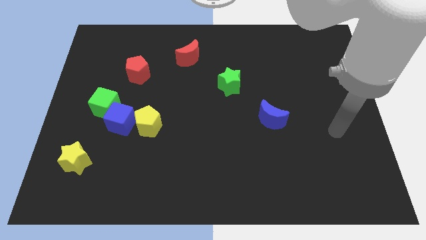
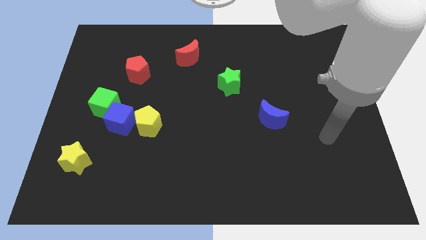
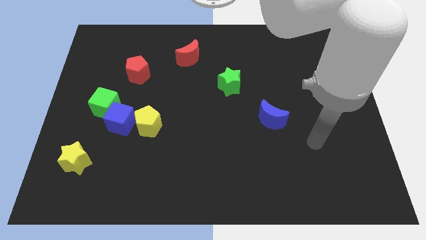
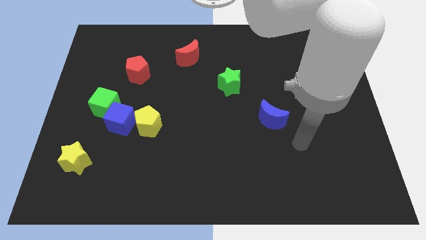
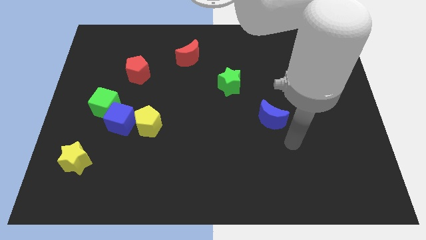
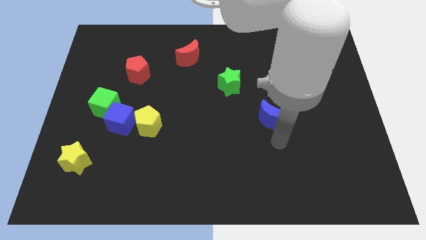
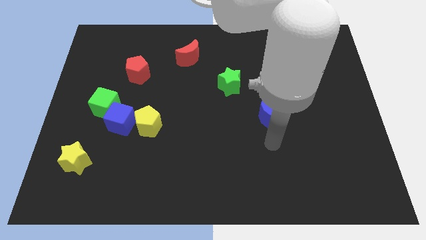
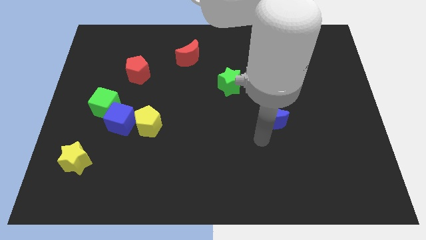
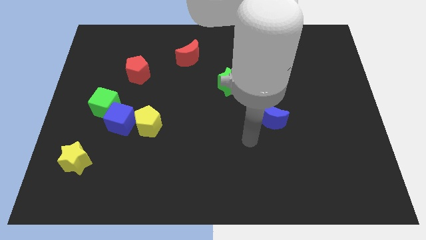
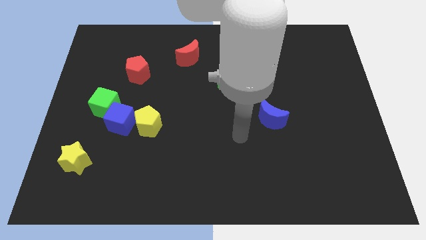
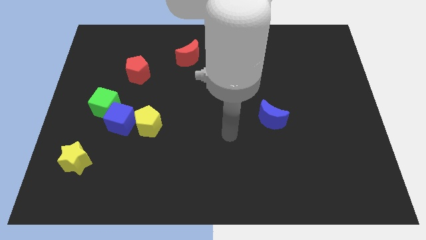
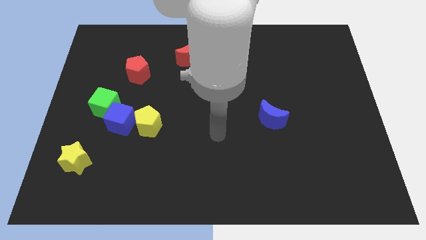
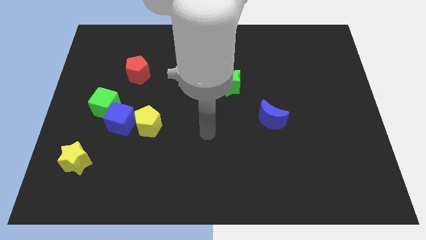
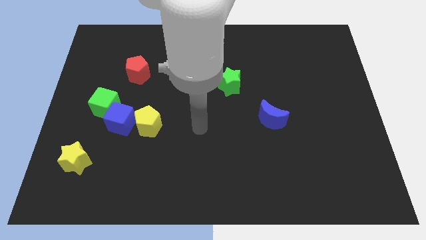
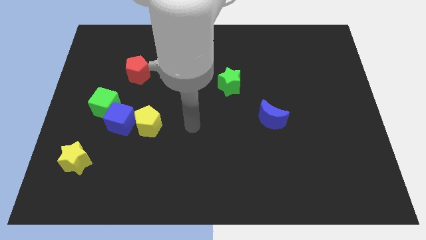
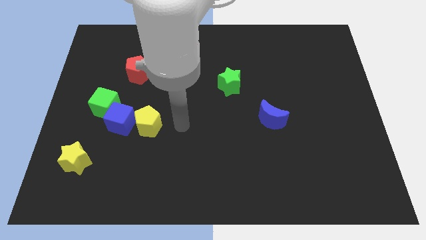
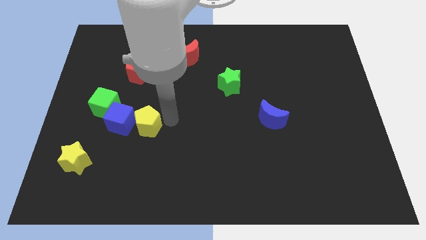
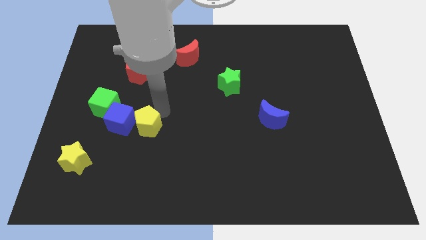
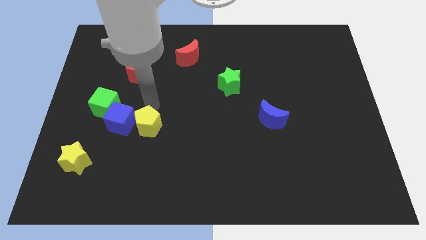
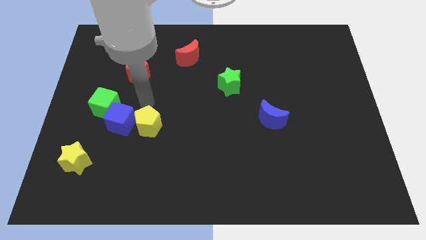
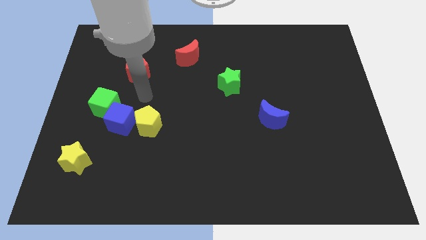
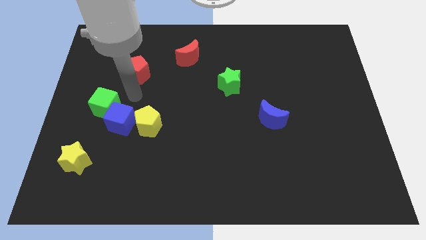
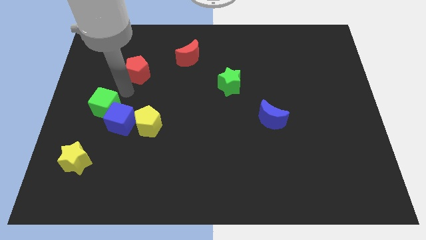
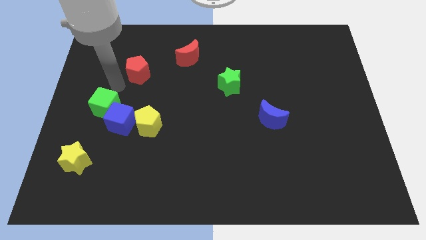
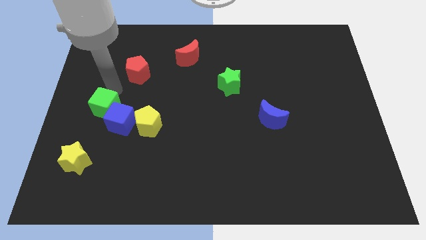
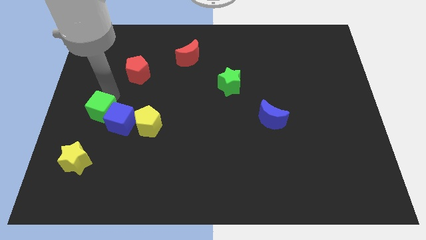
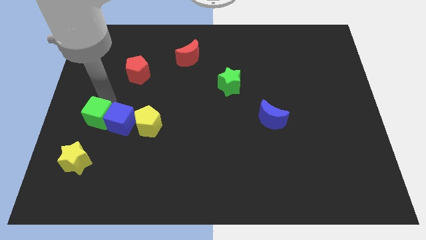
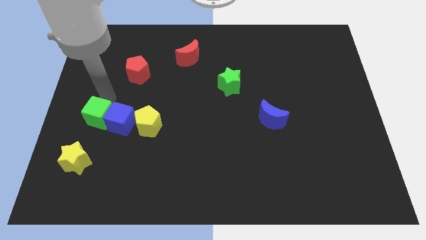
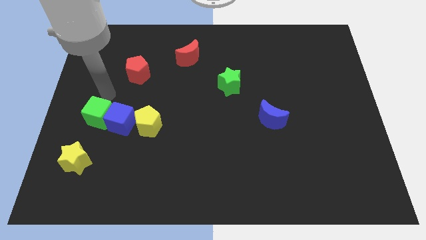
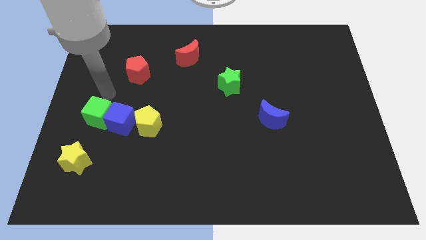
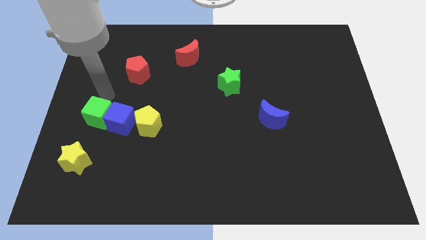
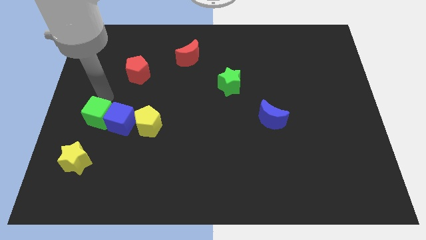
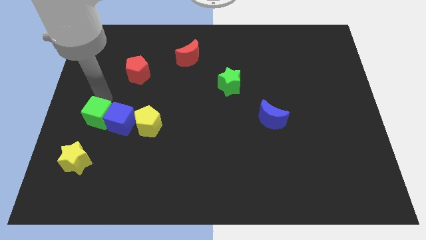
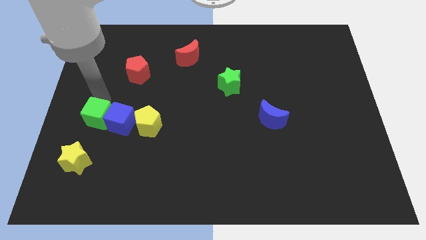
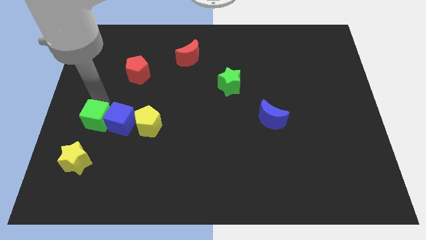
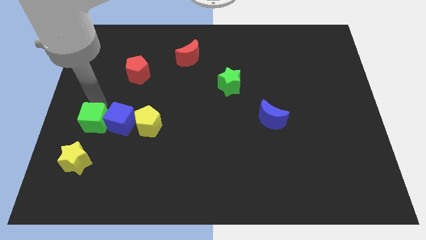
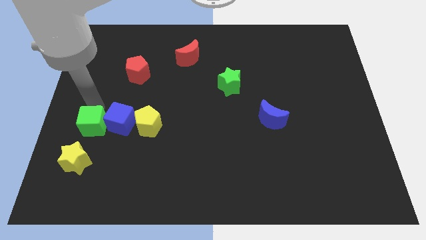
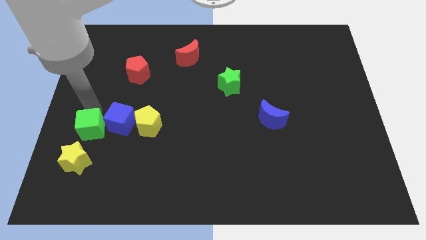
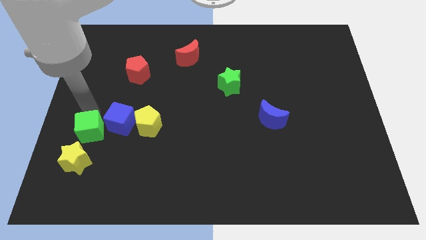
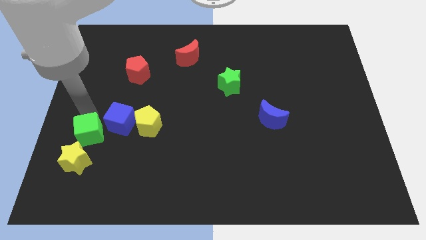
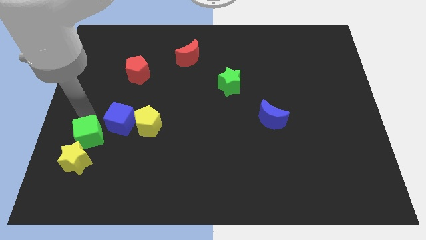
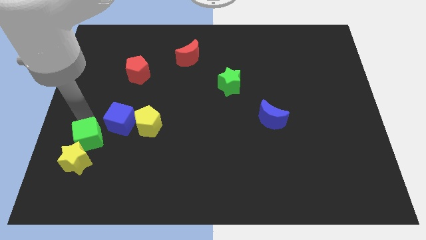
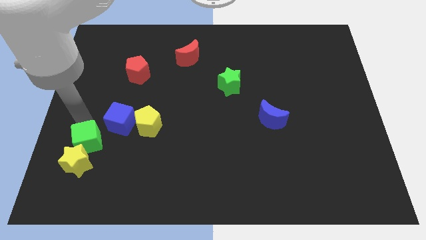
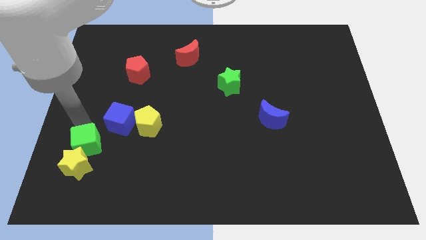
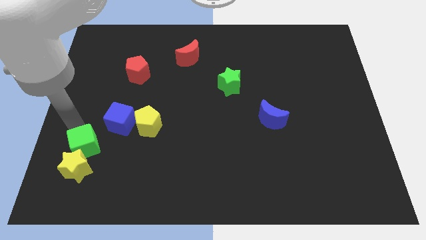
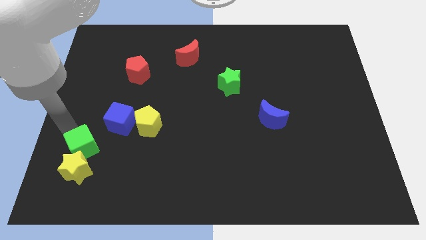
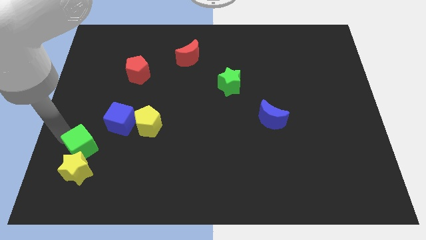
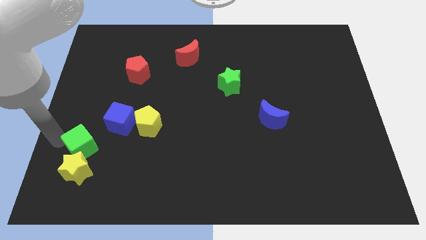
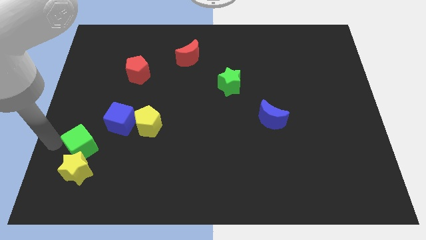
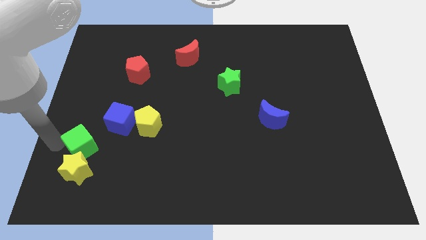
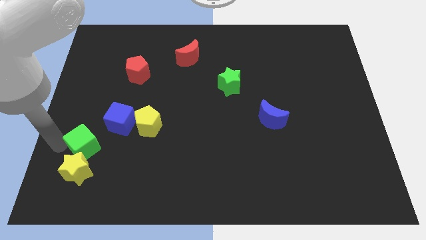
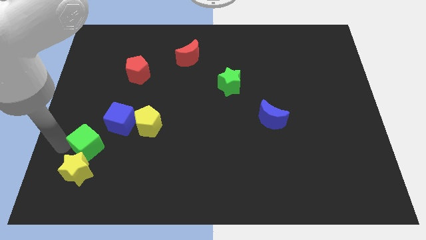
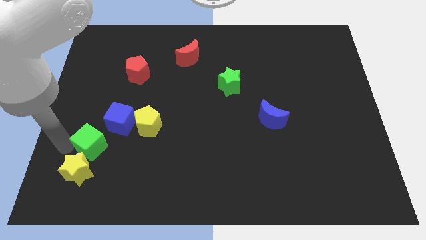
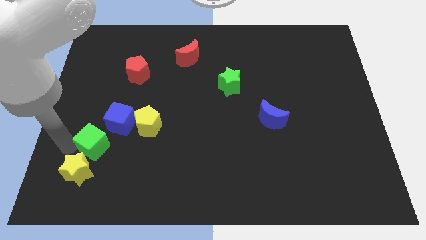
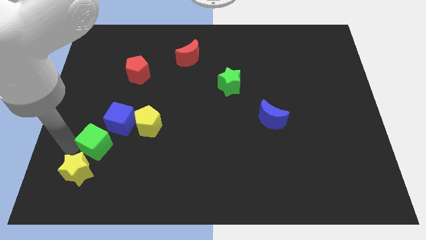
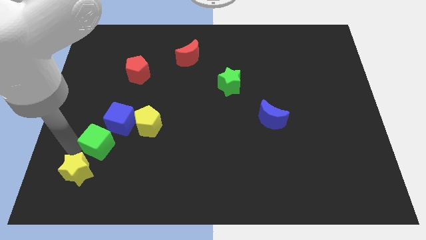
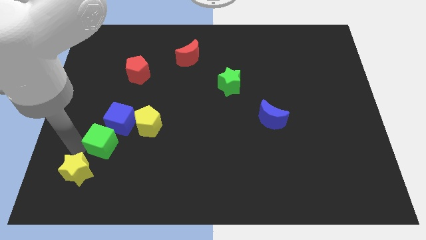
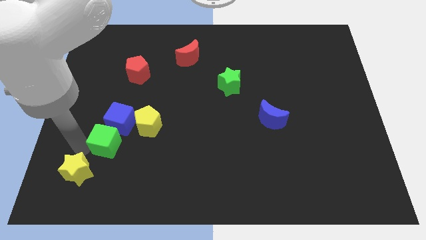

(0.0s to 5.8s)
slightly push the green cube down and to the right diagonally

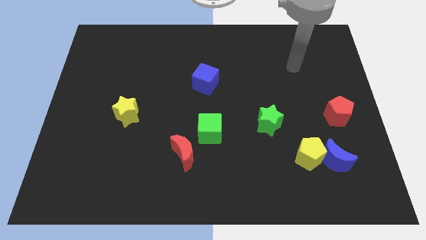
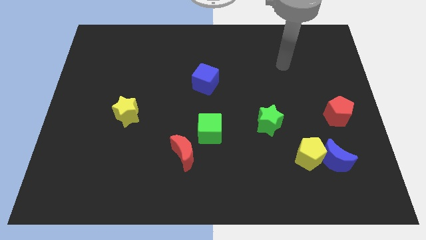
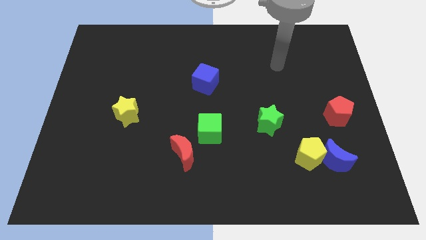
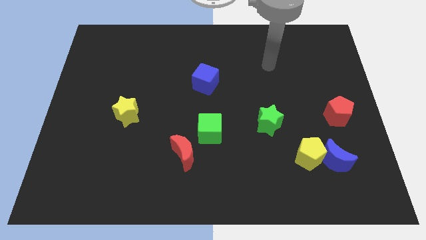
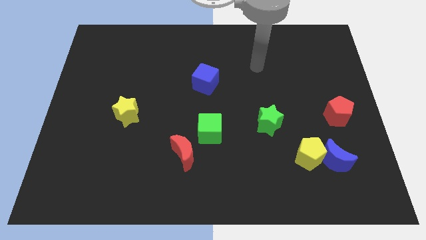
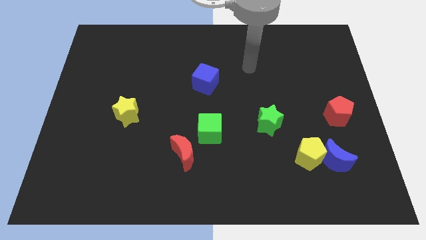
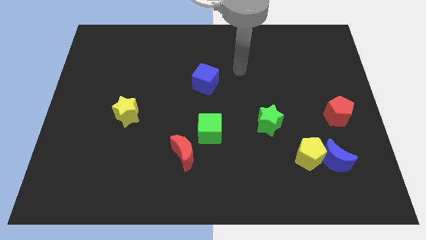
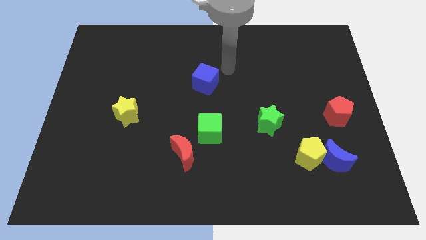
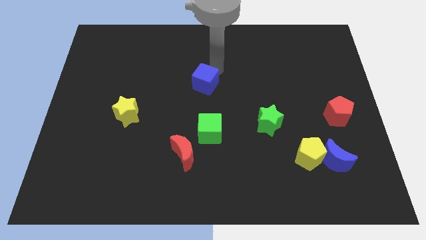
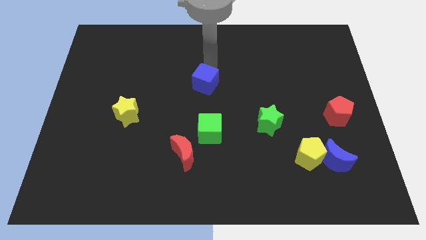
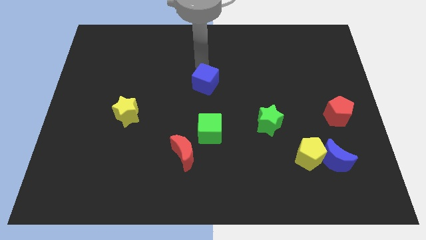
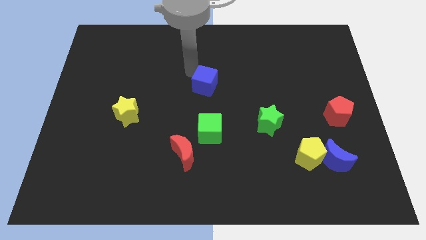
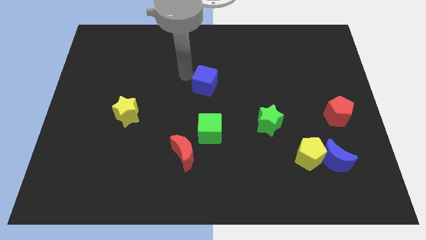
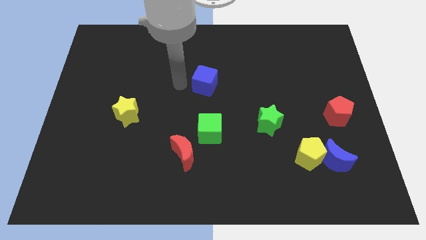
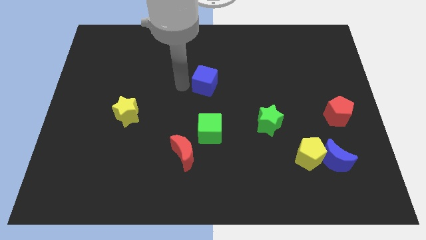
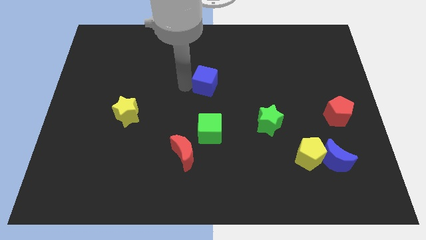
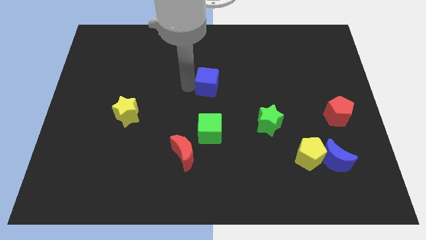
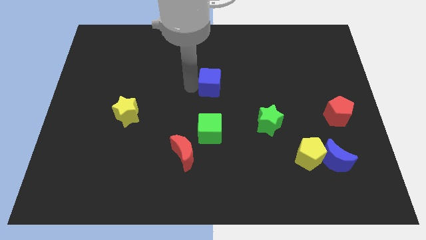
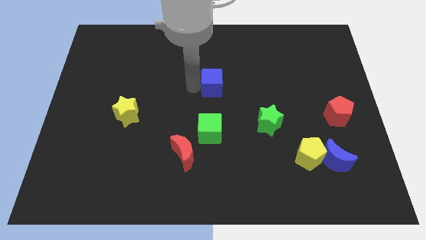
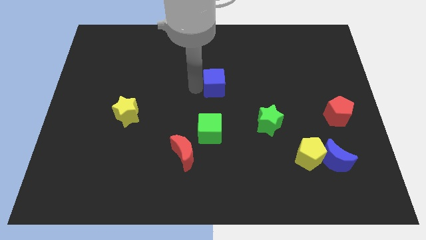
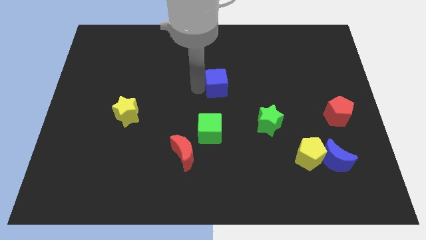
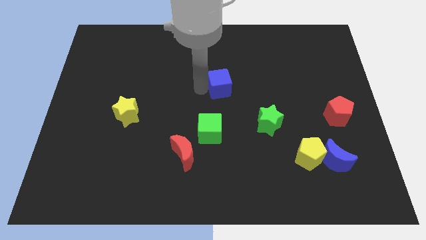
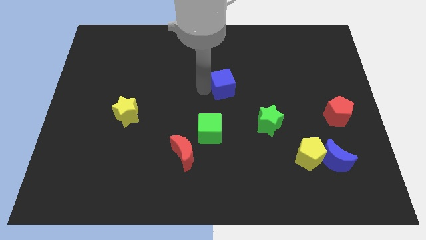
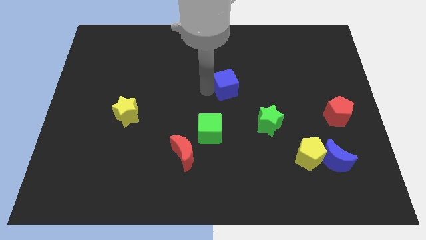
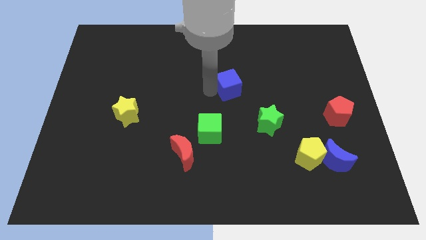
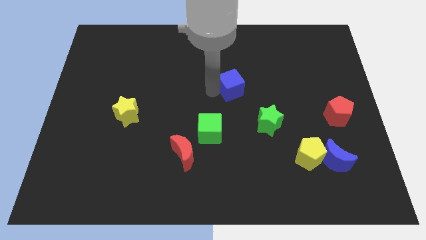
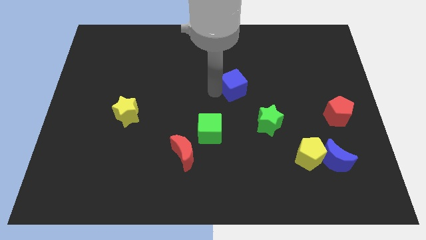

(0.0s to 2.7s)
slide the blue cube to the right a little
